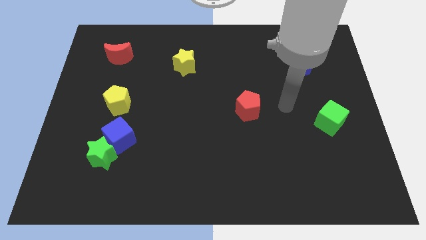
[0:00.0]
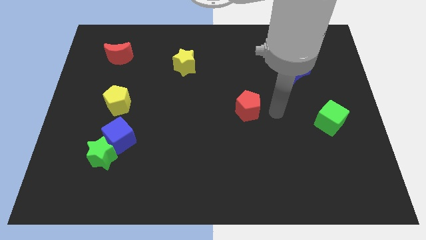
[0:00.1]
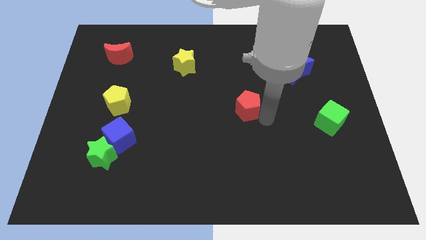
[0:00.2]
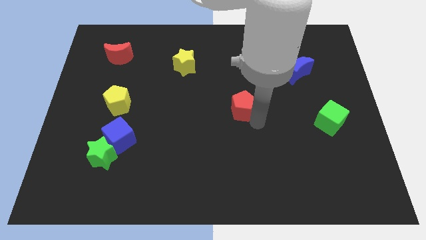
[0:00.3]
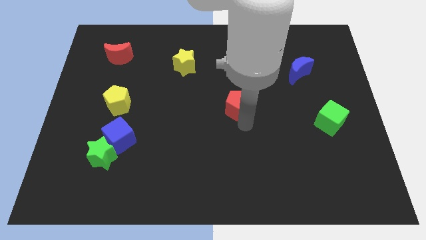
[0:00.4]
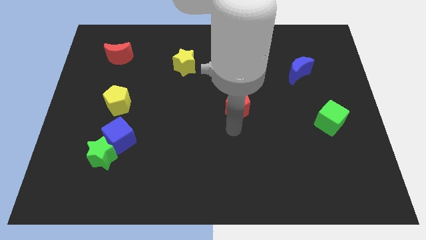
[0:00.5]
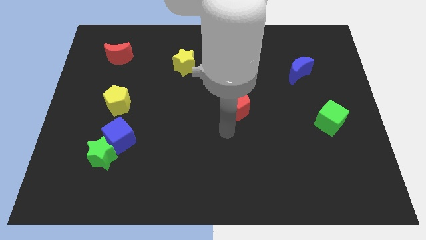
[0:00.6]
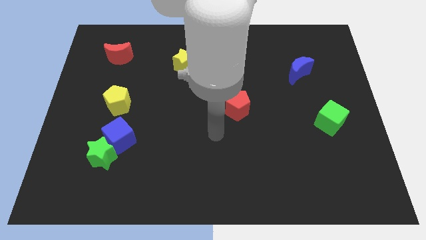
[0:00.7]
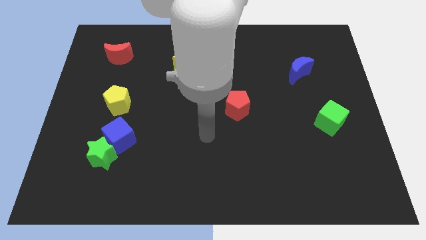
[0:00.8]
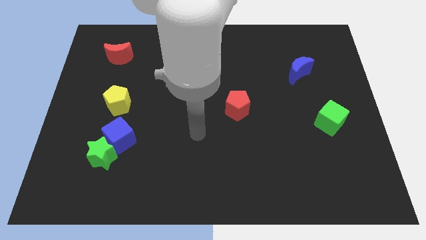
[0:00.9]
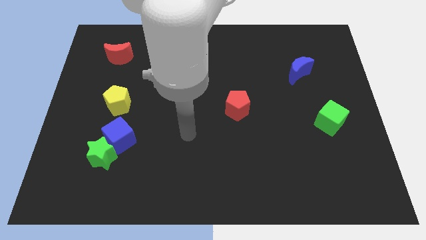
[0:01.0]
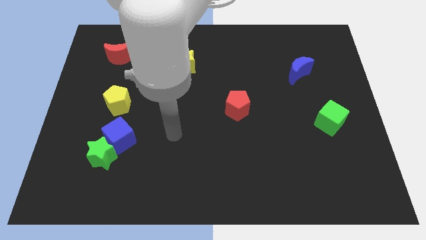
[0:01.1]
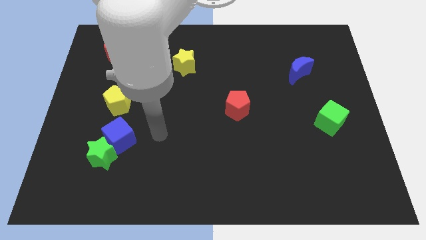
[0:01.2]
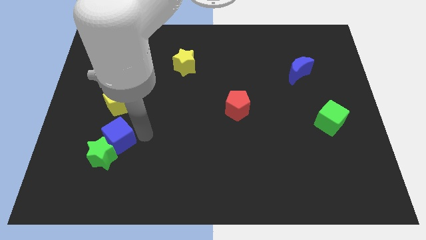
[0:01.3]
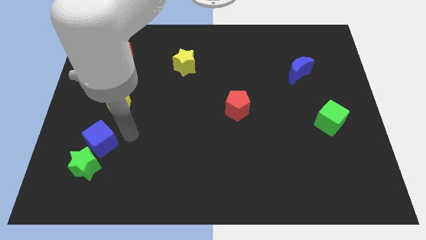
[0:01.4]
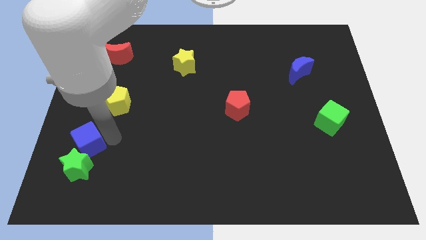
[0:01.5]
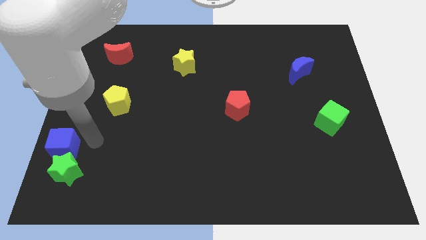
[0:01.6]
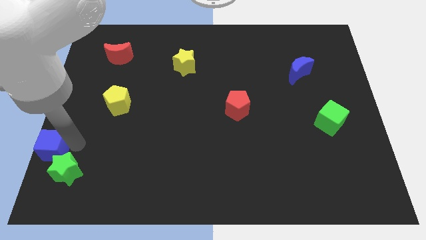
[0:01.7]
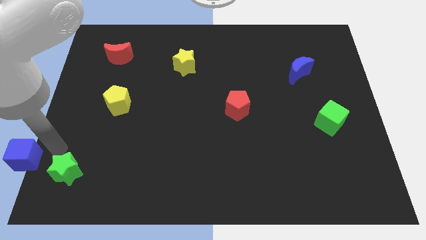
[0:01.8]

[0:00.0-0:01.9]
pull the green star apart from the blue cube

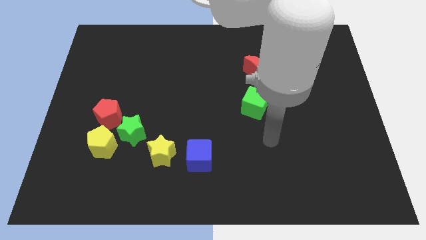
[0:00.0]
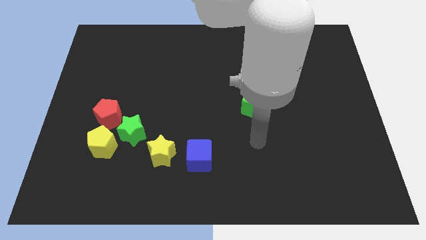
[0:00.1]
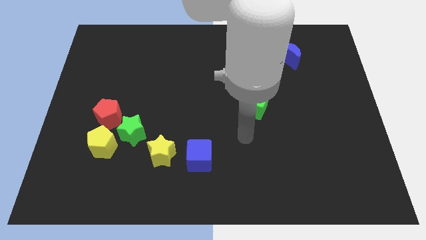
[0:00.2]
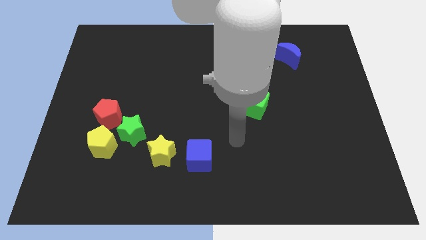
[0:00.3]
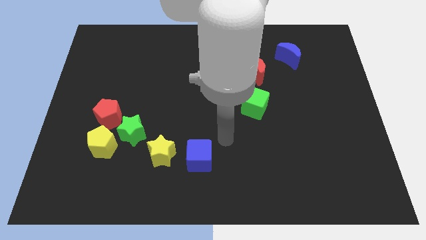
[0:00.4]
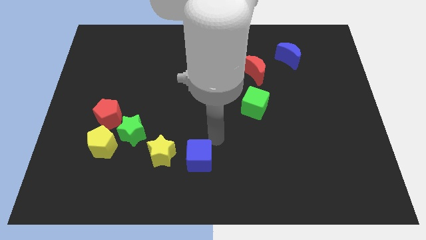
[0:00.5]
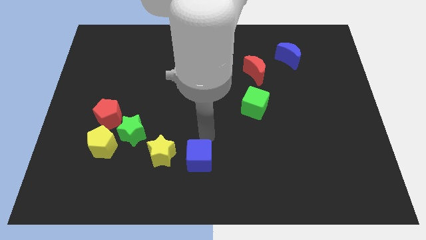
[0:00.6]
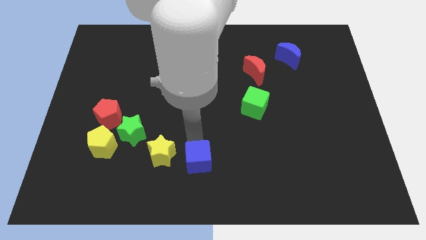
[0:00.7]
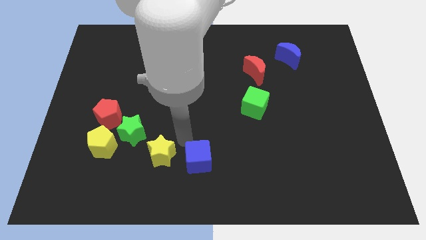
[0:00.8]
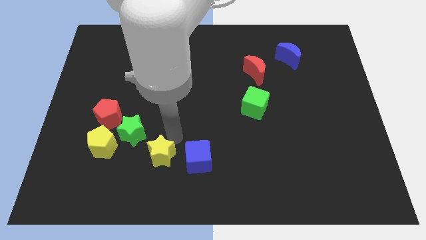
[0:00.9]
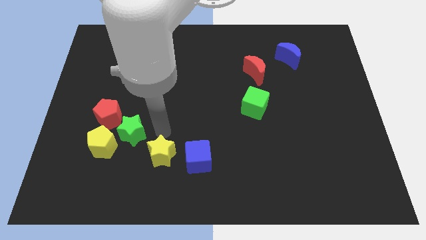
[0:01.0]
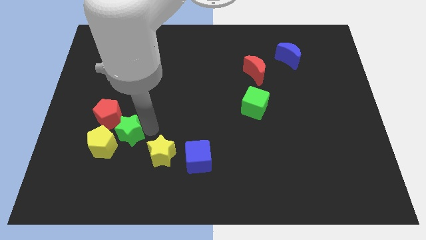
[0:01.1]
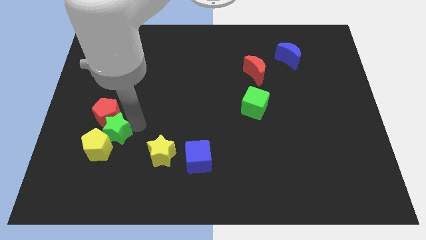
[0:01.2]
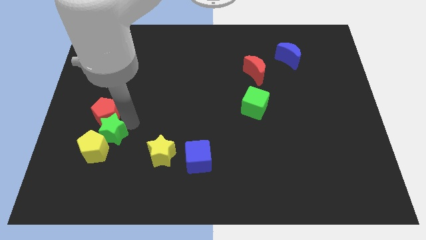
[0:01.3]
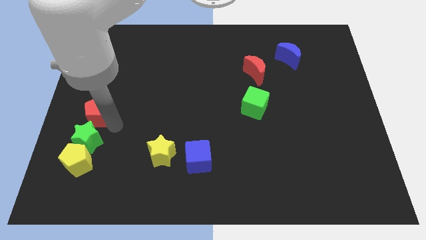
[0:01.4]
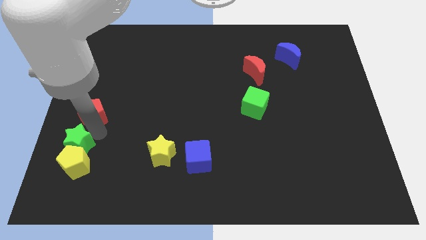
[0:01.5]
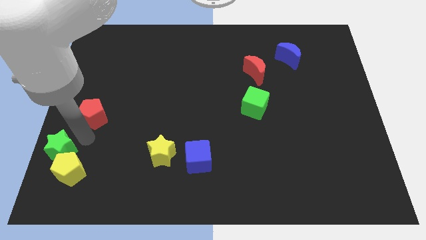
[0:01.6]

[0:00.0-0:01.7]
pull the yellow pentagon apart from the green star and red pentagon

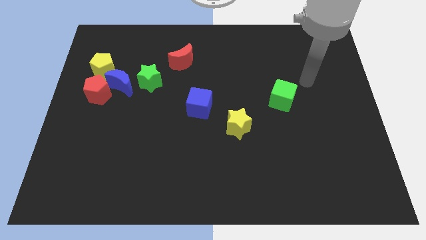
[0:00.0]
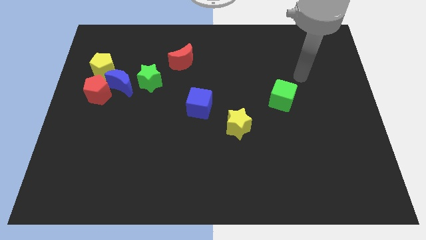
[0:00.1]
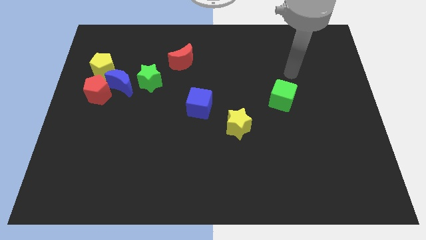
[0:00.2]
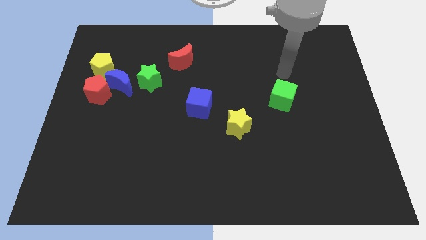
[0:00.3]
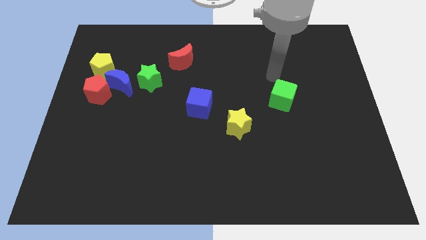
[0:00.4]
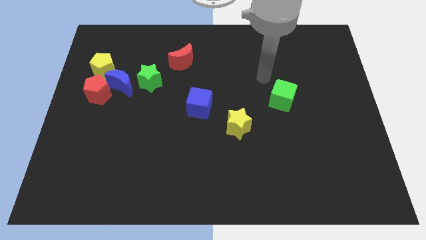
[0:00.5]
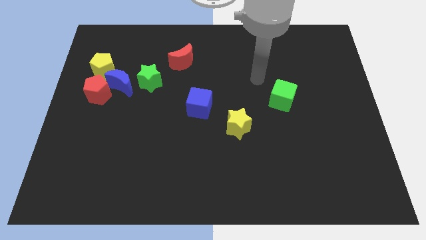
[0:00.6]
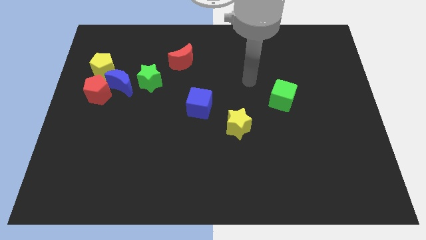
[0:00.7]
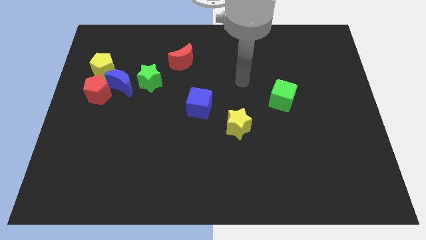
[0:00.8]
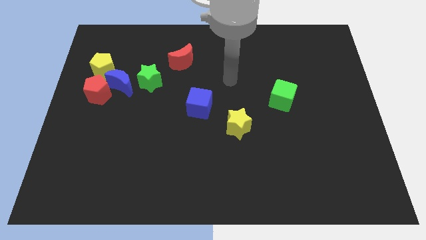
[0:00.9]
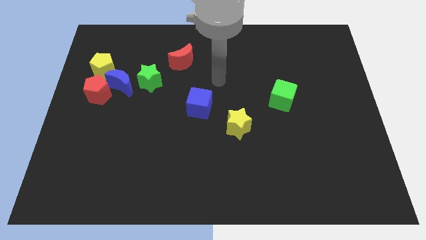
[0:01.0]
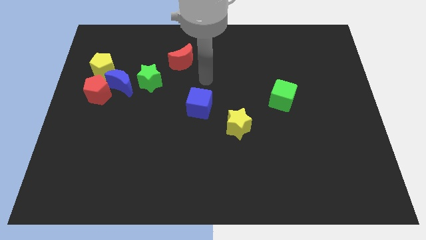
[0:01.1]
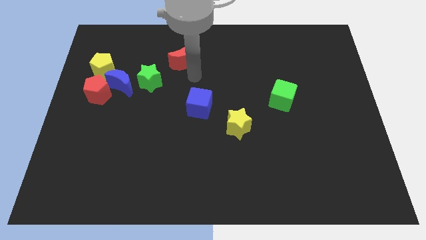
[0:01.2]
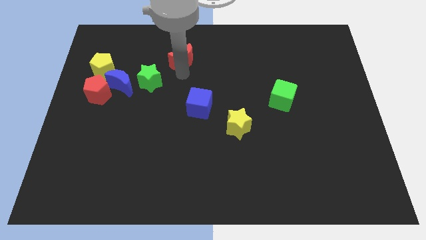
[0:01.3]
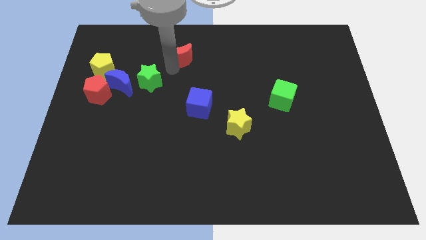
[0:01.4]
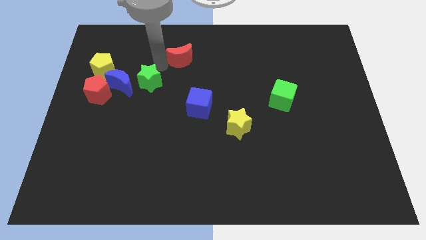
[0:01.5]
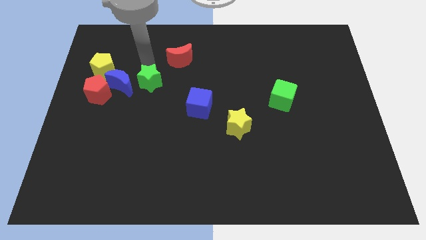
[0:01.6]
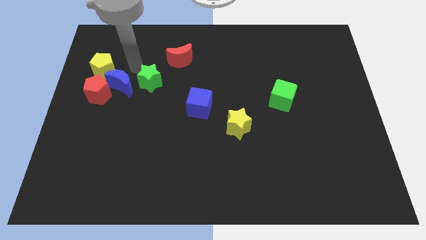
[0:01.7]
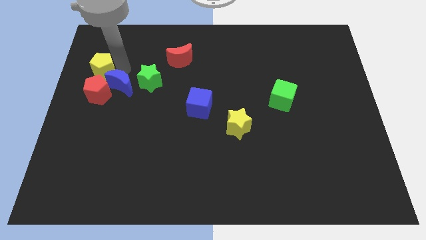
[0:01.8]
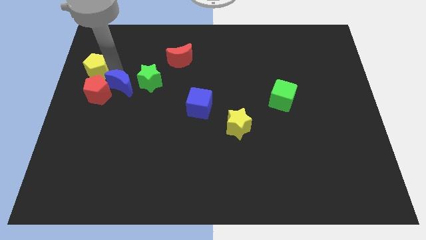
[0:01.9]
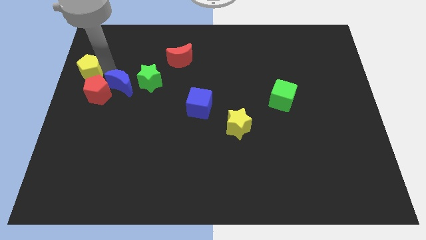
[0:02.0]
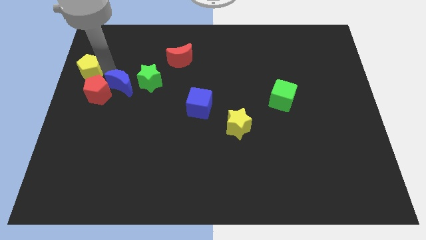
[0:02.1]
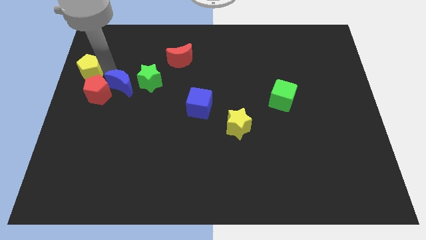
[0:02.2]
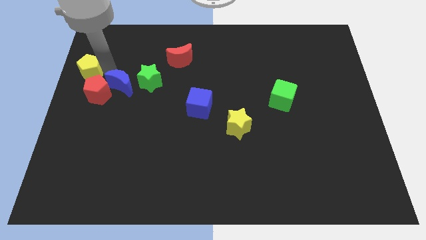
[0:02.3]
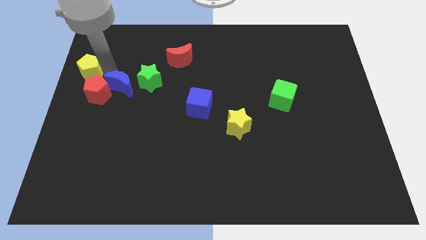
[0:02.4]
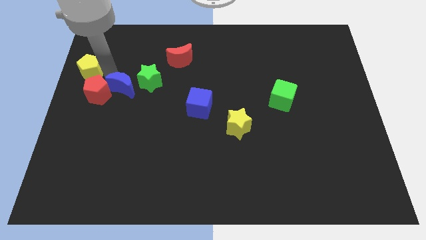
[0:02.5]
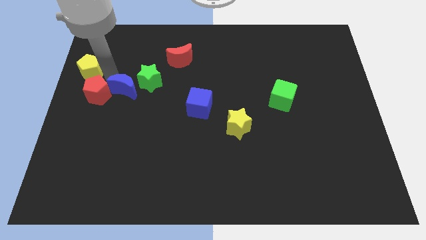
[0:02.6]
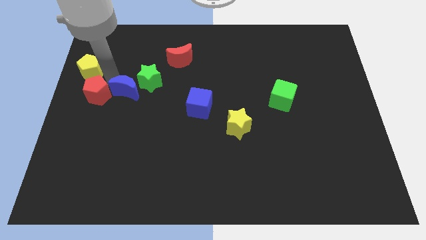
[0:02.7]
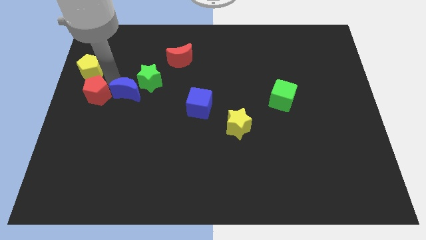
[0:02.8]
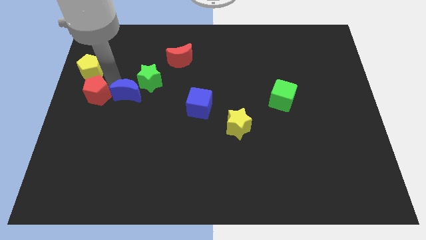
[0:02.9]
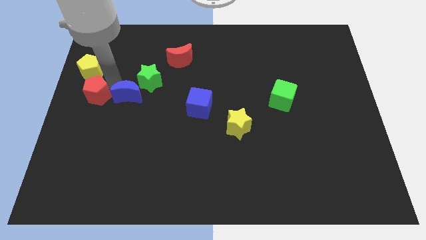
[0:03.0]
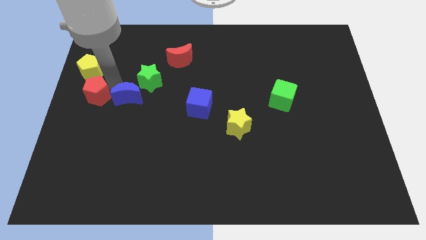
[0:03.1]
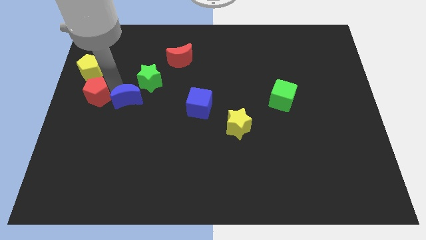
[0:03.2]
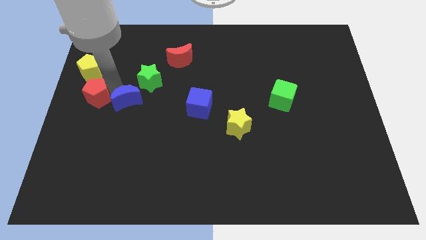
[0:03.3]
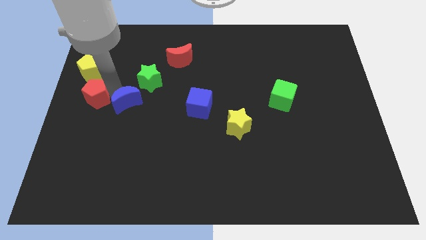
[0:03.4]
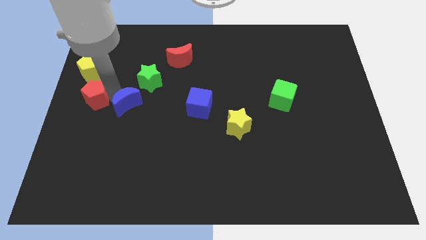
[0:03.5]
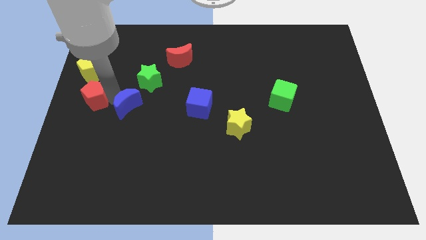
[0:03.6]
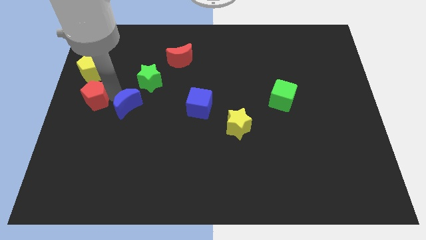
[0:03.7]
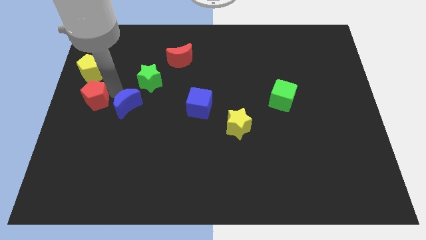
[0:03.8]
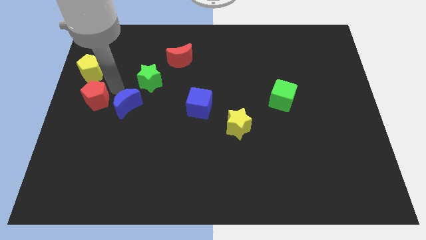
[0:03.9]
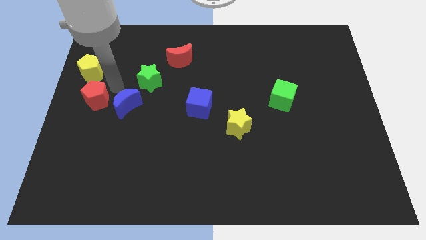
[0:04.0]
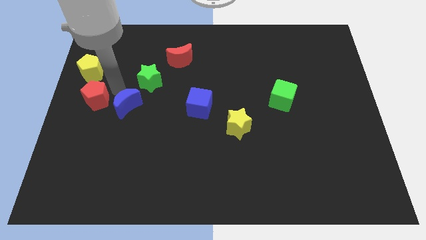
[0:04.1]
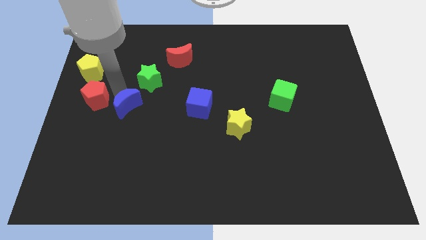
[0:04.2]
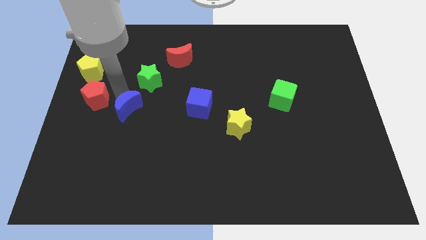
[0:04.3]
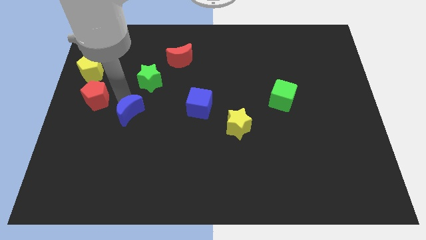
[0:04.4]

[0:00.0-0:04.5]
move the blue moon away from the group

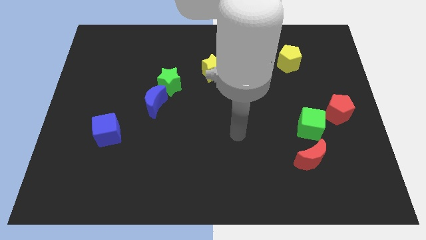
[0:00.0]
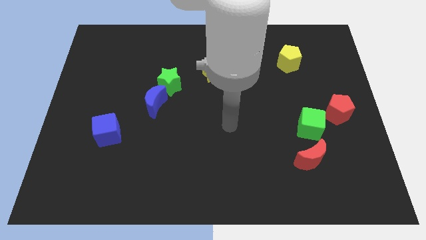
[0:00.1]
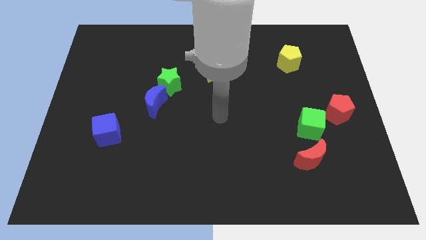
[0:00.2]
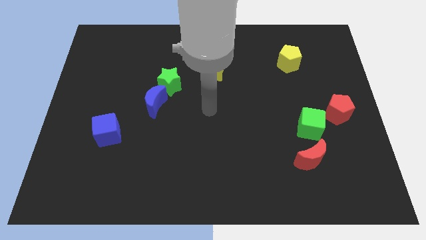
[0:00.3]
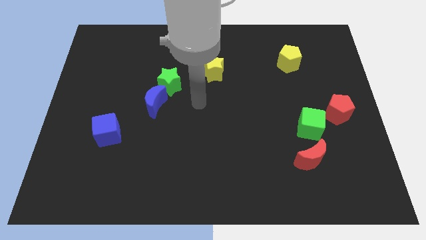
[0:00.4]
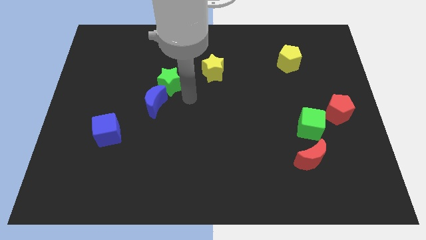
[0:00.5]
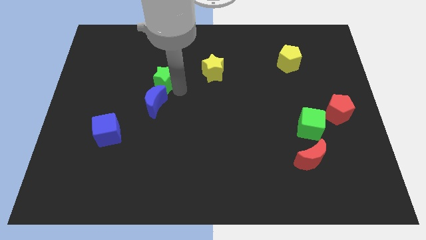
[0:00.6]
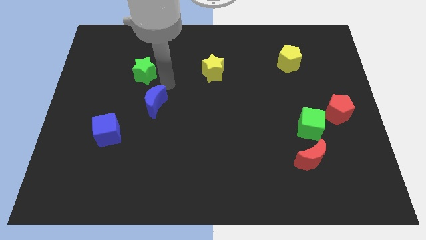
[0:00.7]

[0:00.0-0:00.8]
pull the blue moon apart from the green star

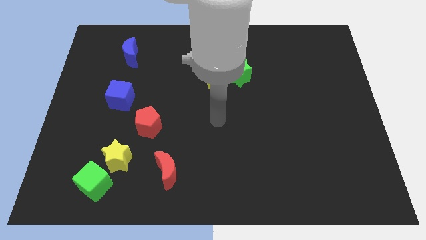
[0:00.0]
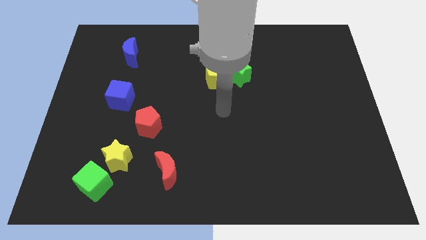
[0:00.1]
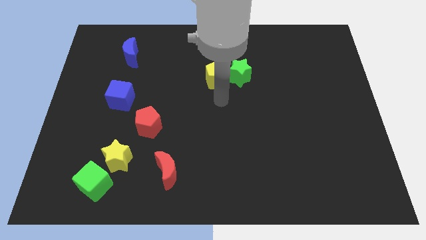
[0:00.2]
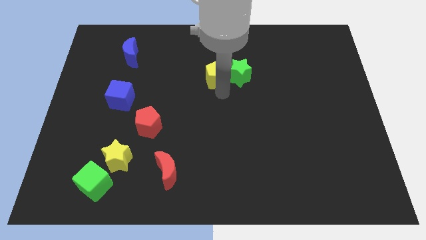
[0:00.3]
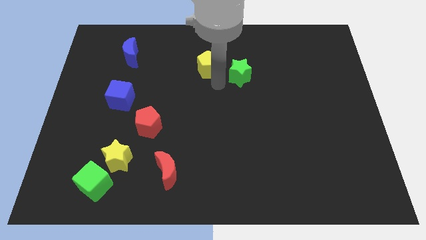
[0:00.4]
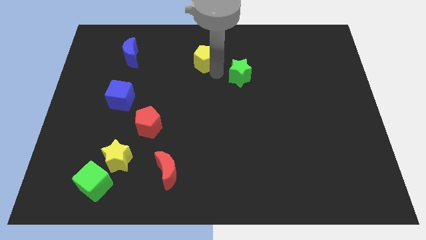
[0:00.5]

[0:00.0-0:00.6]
pull the green star apart from the yellow pentagon
